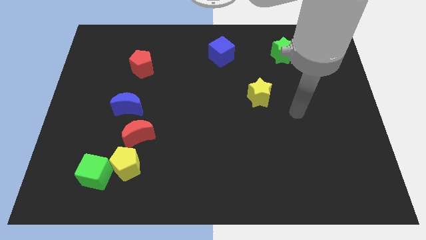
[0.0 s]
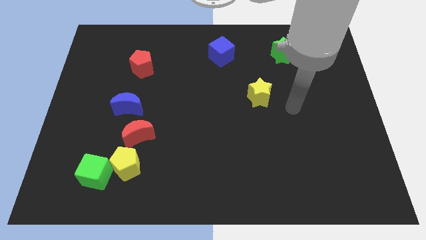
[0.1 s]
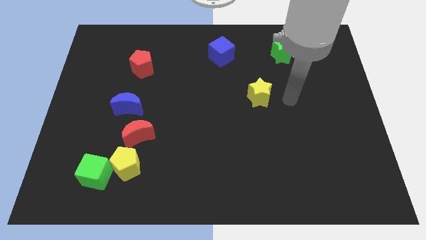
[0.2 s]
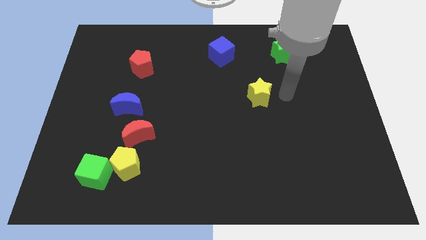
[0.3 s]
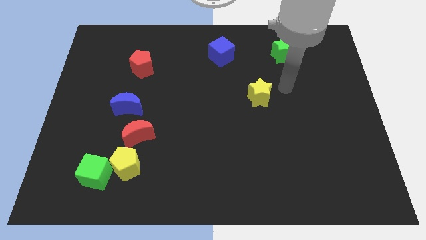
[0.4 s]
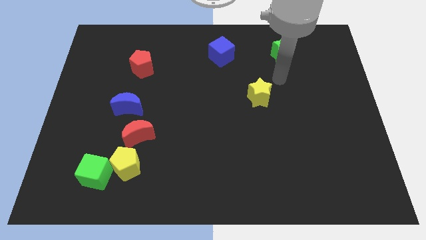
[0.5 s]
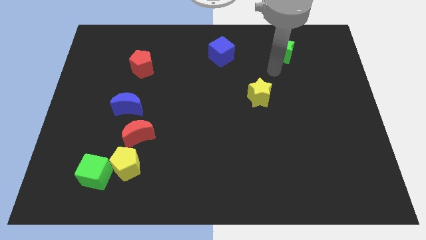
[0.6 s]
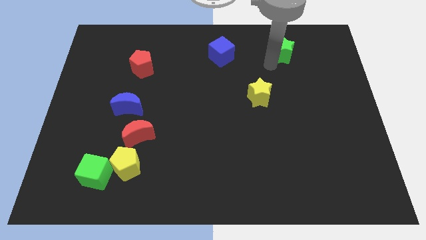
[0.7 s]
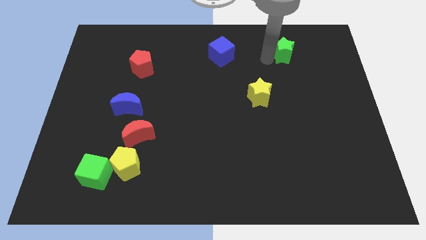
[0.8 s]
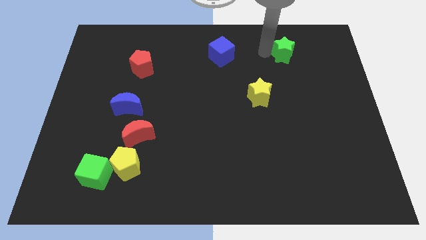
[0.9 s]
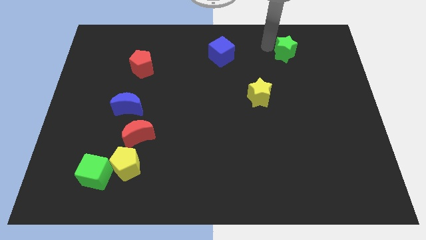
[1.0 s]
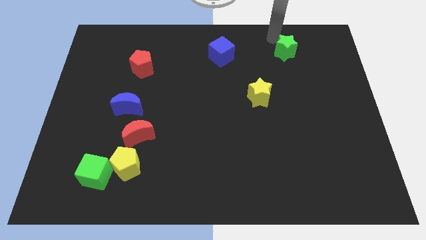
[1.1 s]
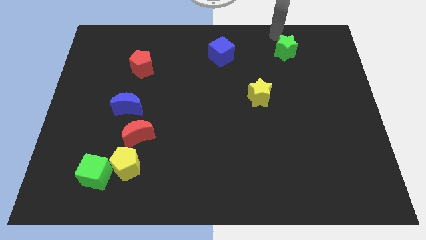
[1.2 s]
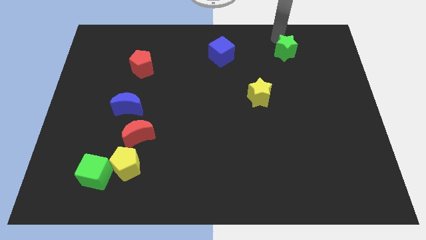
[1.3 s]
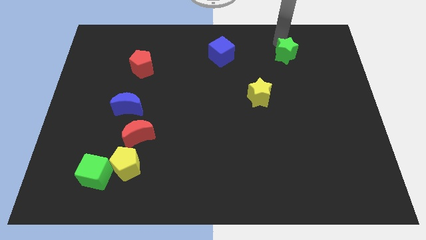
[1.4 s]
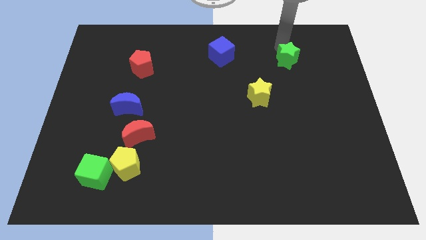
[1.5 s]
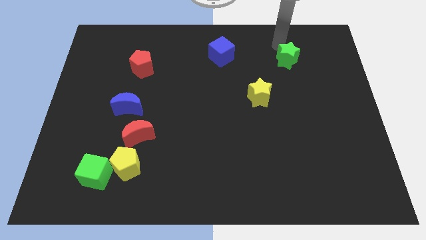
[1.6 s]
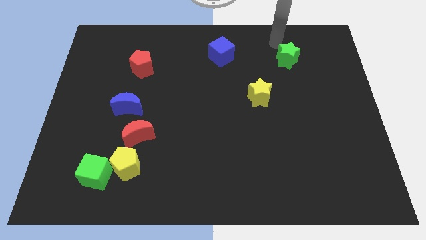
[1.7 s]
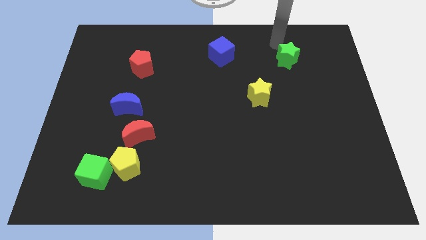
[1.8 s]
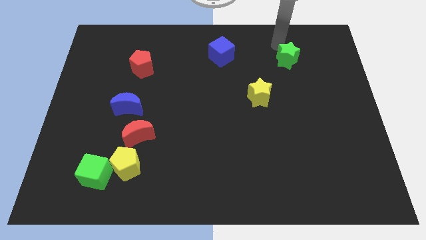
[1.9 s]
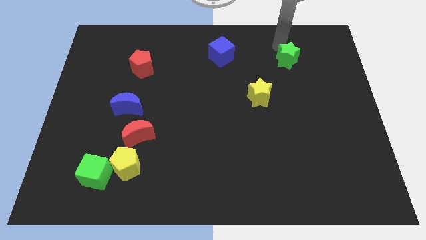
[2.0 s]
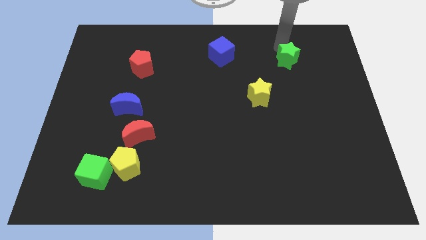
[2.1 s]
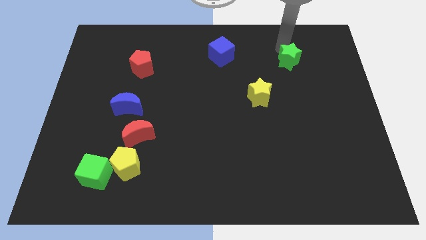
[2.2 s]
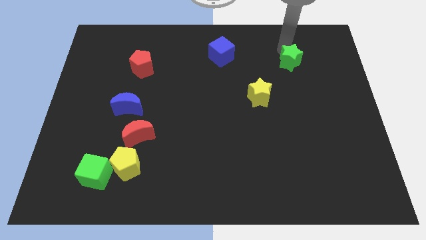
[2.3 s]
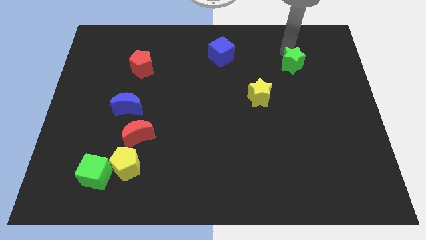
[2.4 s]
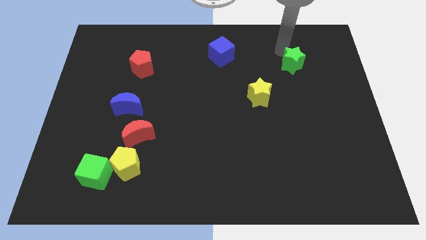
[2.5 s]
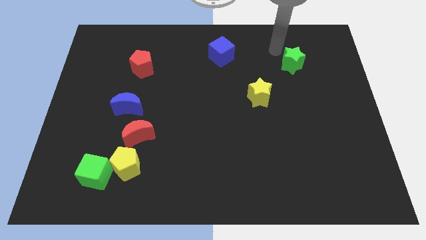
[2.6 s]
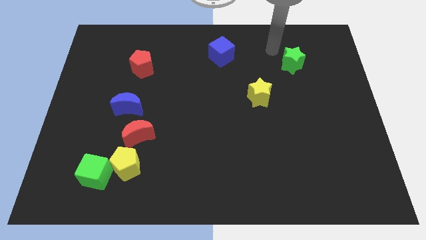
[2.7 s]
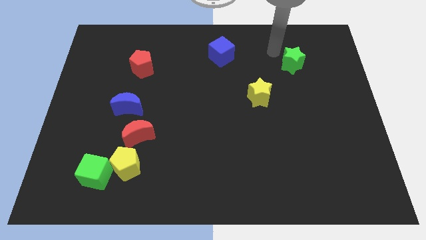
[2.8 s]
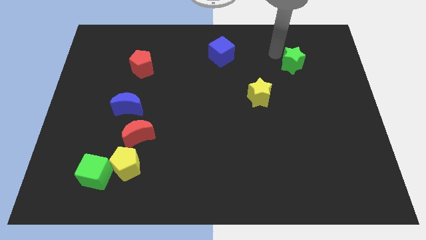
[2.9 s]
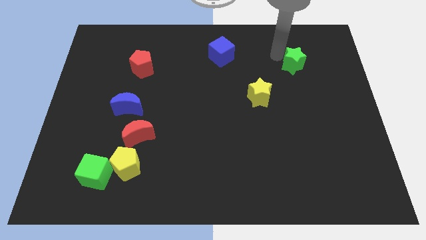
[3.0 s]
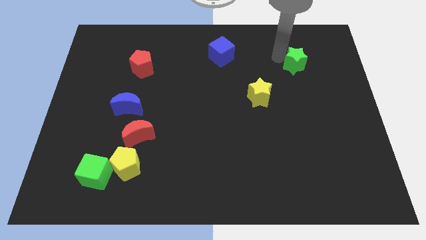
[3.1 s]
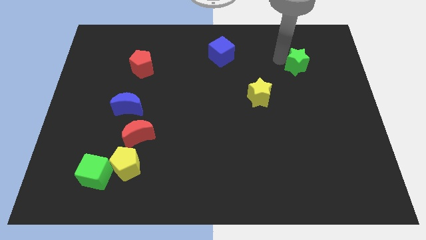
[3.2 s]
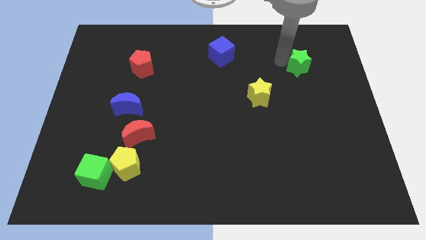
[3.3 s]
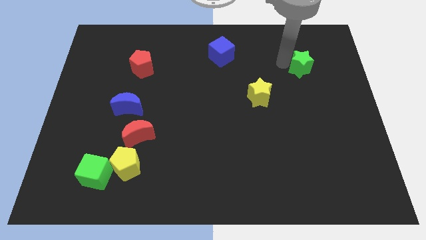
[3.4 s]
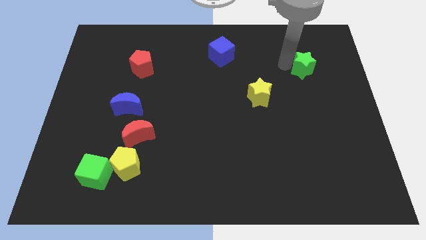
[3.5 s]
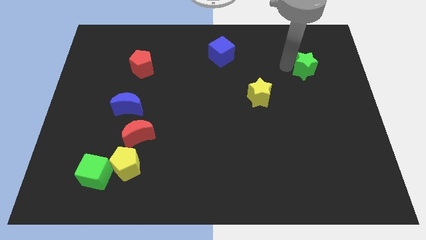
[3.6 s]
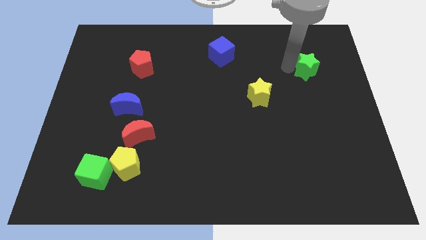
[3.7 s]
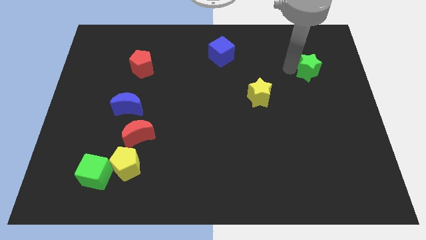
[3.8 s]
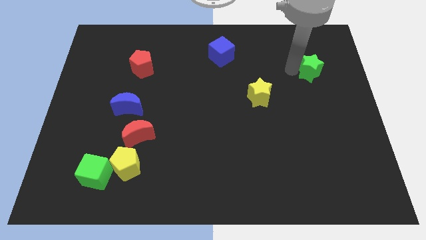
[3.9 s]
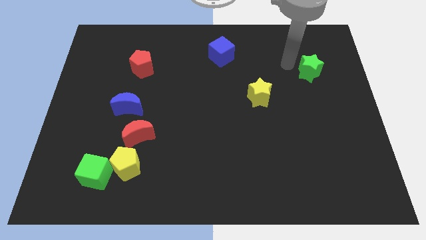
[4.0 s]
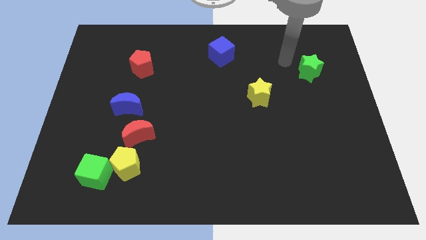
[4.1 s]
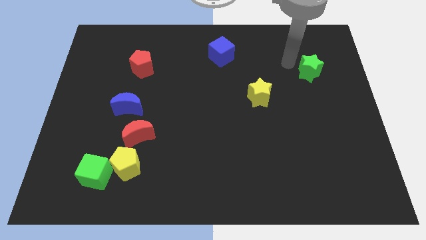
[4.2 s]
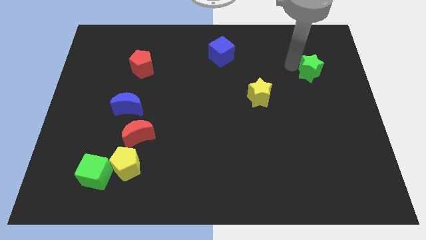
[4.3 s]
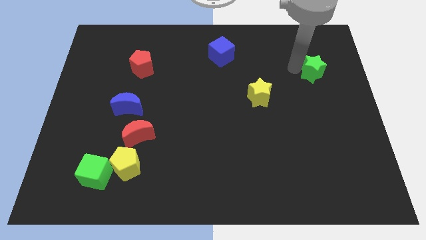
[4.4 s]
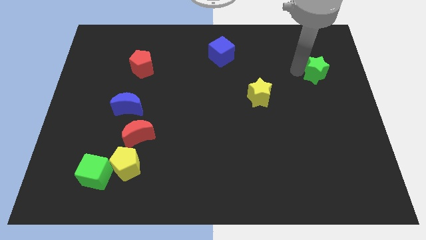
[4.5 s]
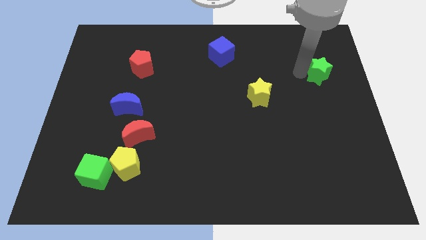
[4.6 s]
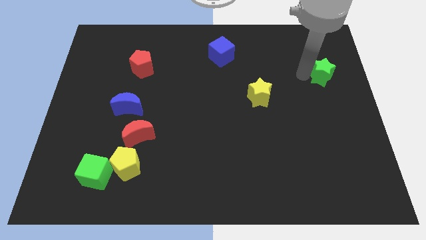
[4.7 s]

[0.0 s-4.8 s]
move the green star to the center right

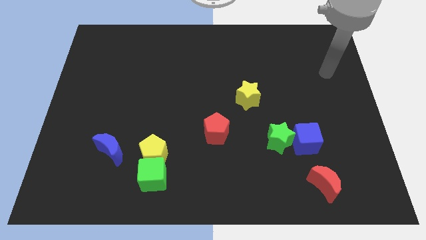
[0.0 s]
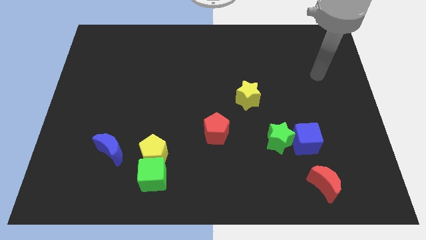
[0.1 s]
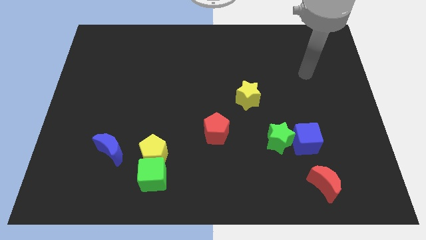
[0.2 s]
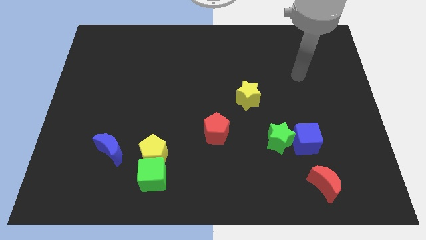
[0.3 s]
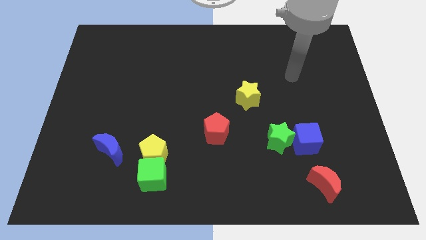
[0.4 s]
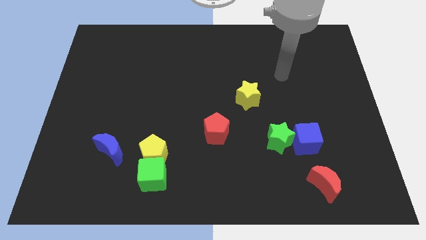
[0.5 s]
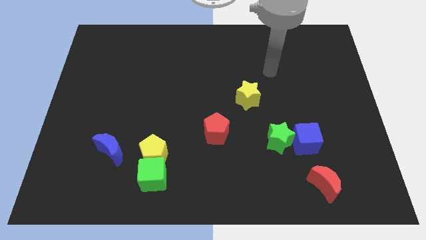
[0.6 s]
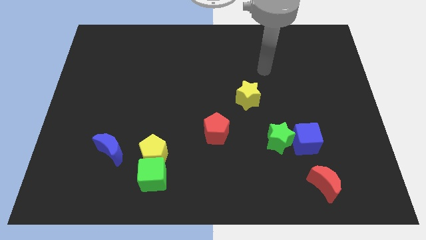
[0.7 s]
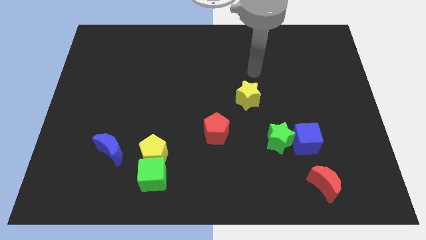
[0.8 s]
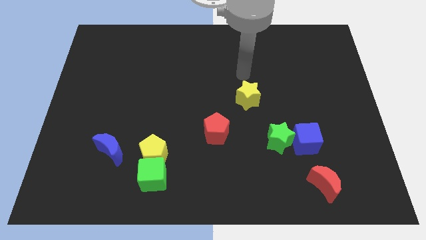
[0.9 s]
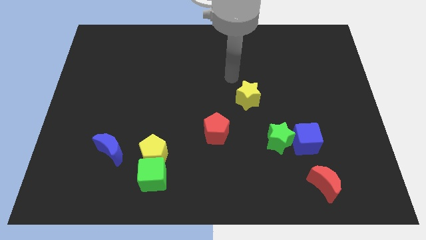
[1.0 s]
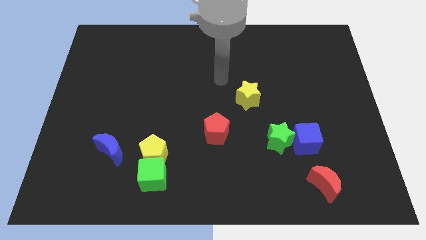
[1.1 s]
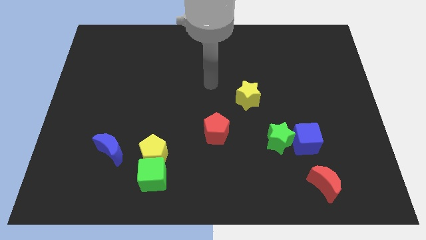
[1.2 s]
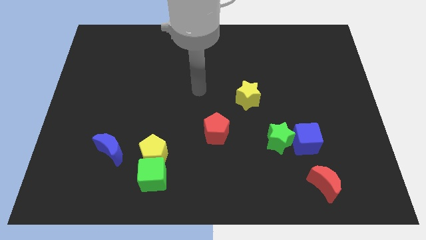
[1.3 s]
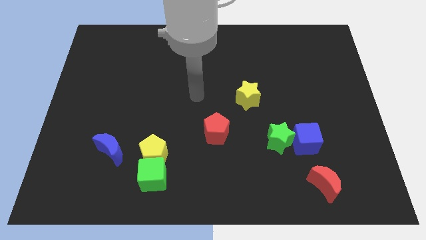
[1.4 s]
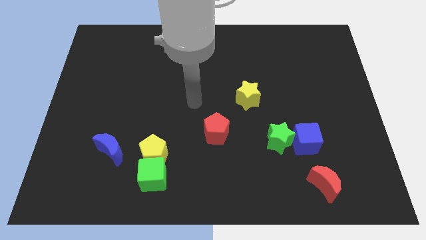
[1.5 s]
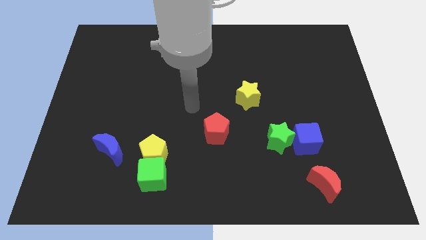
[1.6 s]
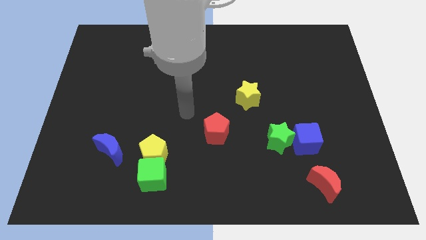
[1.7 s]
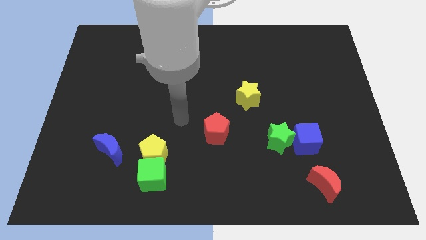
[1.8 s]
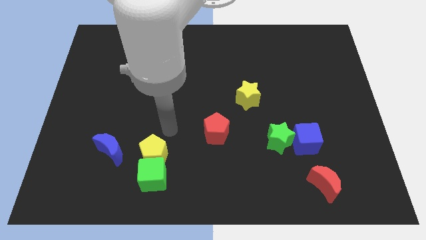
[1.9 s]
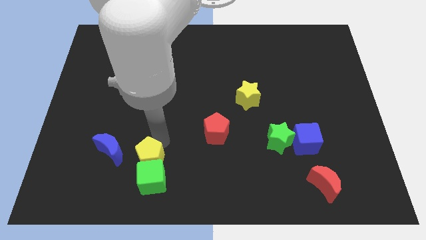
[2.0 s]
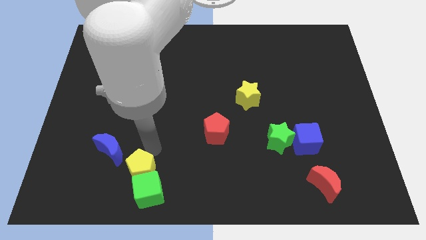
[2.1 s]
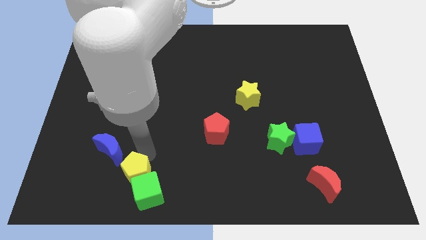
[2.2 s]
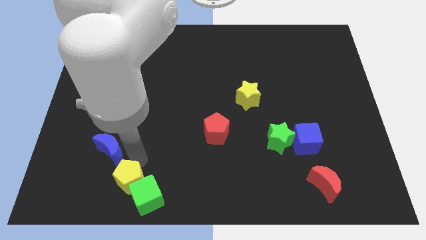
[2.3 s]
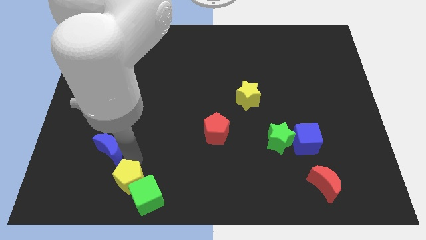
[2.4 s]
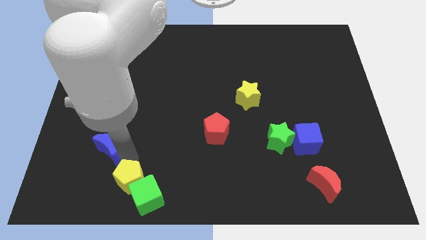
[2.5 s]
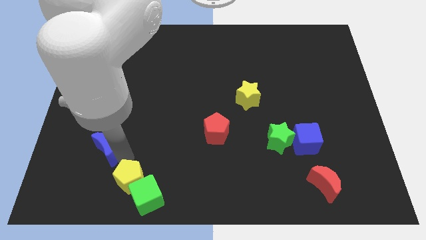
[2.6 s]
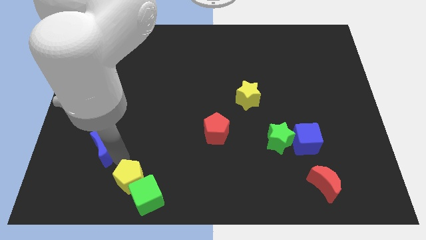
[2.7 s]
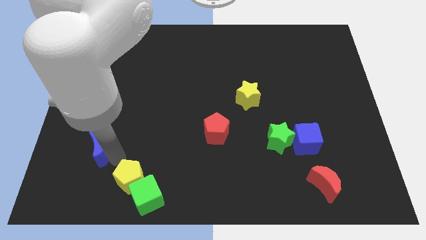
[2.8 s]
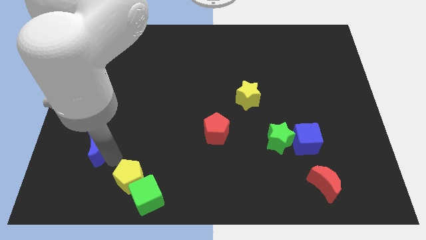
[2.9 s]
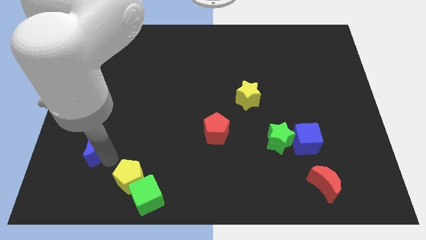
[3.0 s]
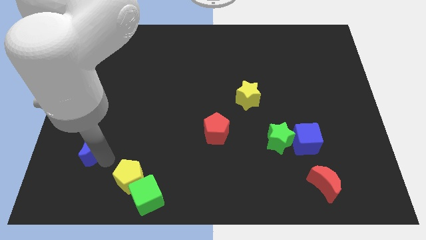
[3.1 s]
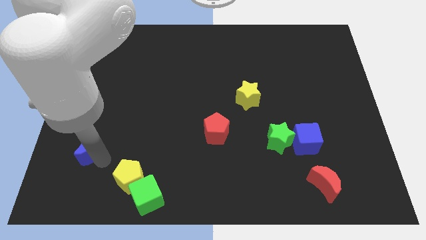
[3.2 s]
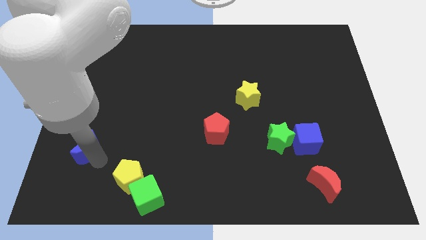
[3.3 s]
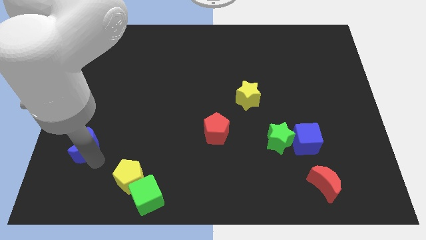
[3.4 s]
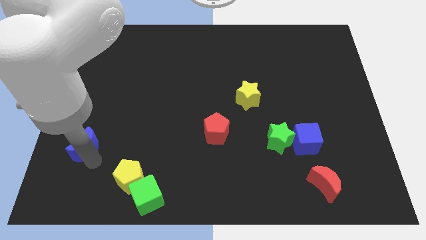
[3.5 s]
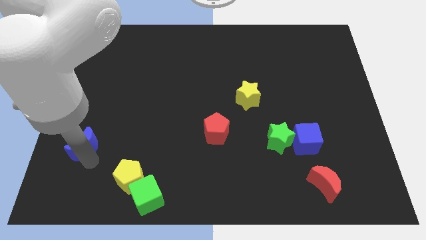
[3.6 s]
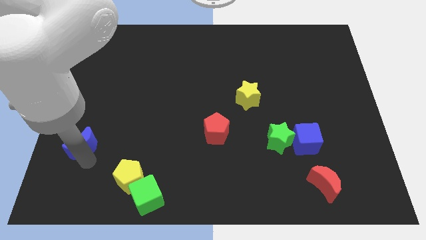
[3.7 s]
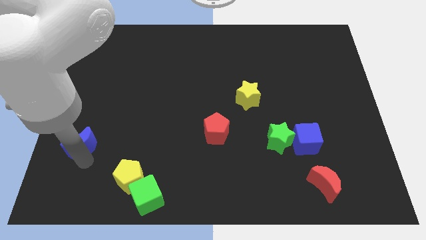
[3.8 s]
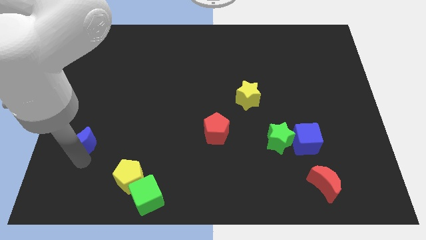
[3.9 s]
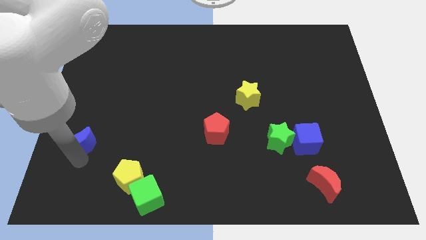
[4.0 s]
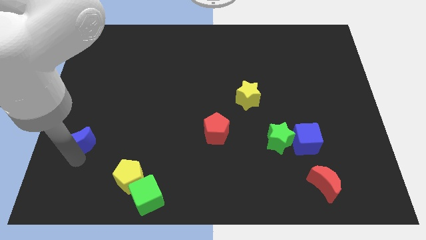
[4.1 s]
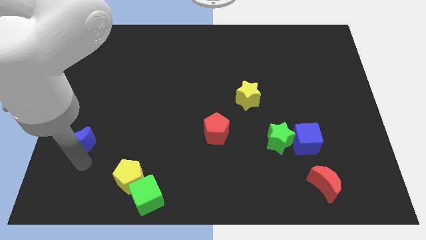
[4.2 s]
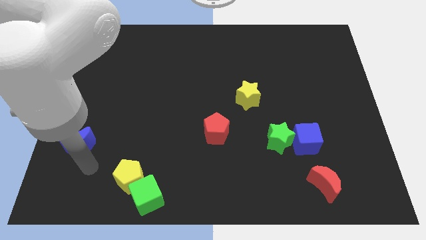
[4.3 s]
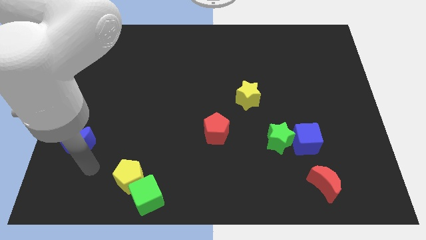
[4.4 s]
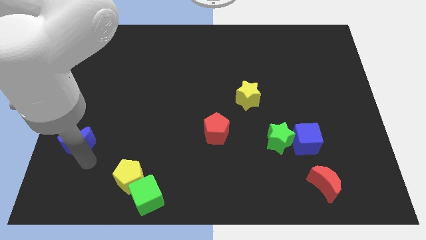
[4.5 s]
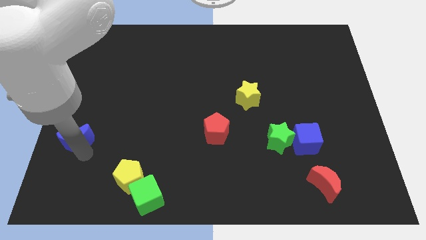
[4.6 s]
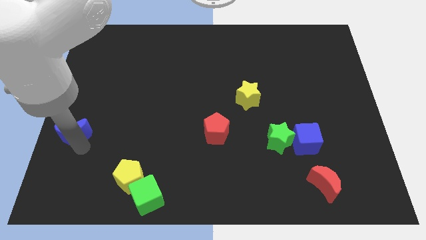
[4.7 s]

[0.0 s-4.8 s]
put the blue moon to the left side
